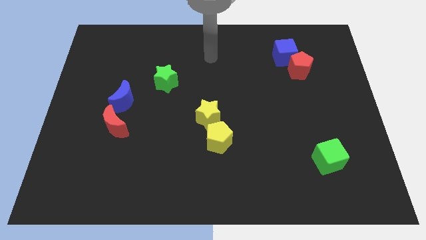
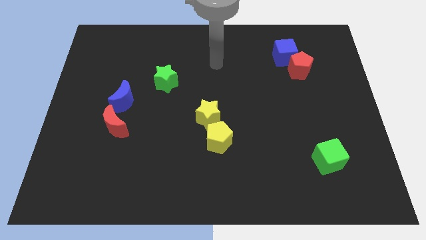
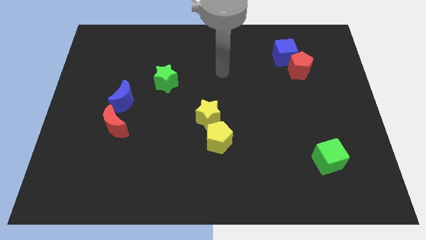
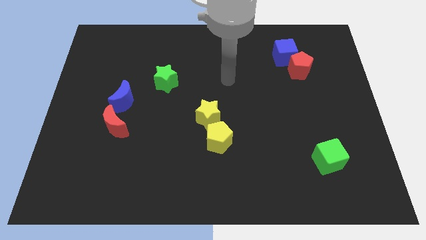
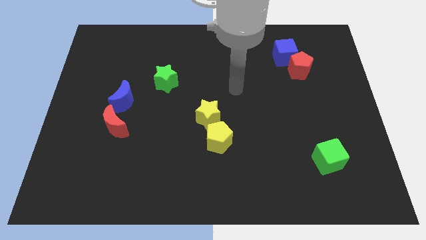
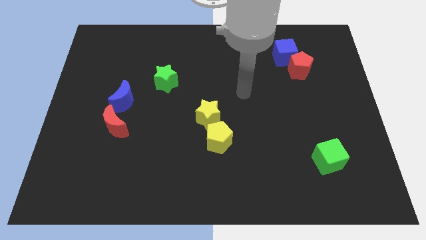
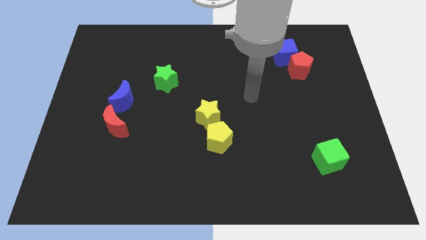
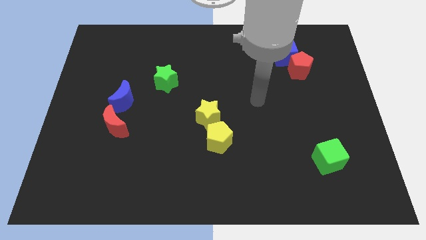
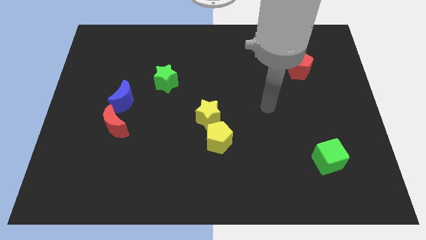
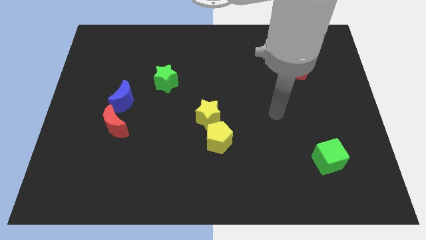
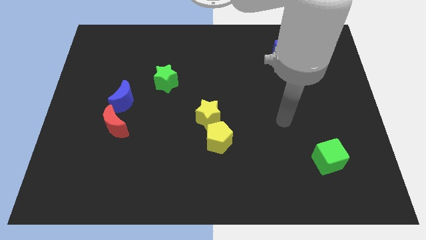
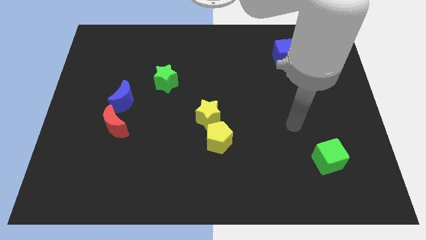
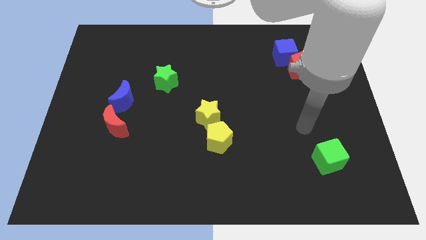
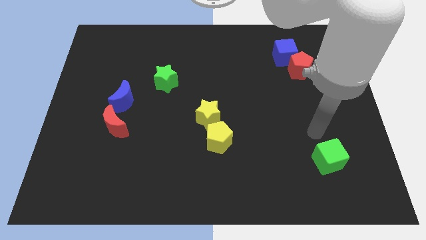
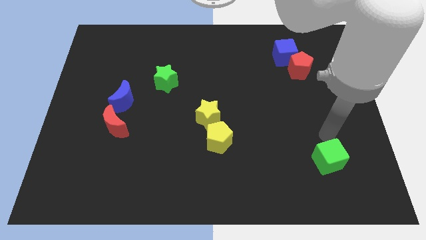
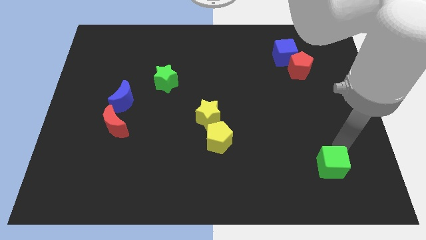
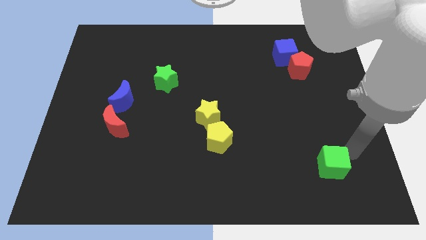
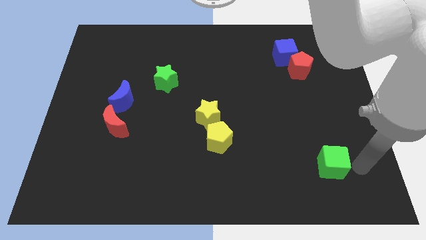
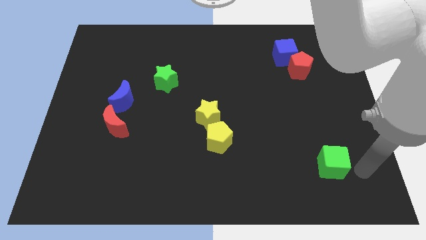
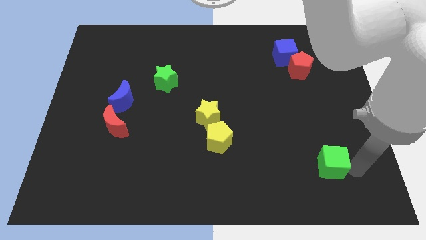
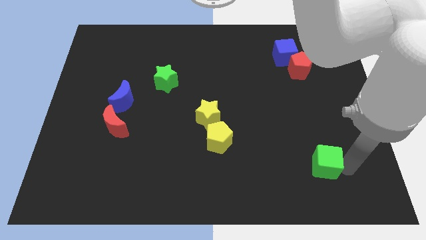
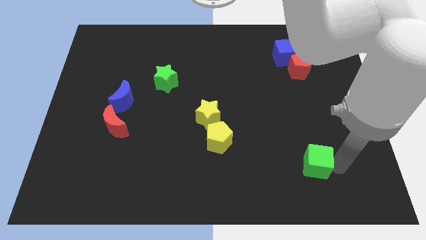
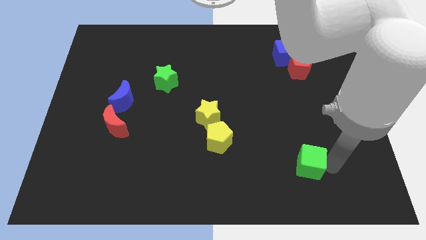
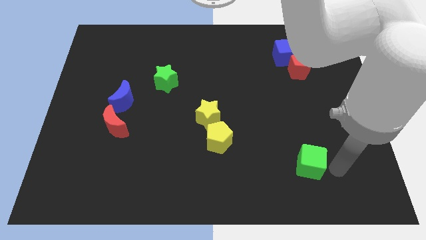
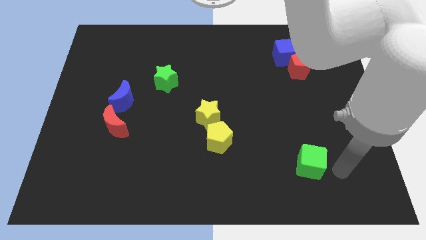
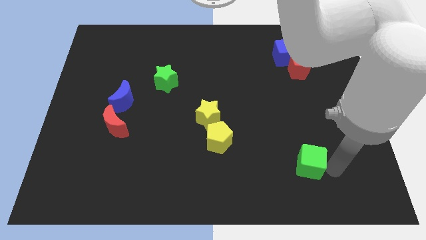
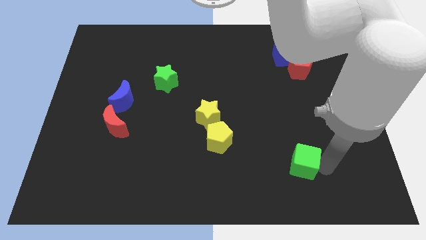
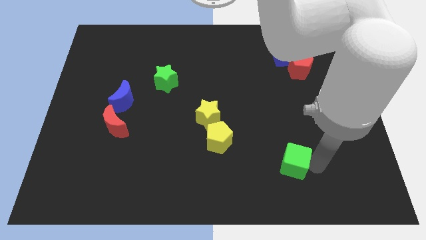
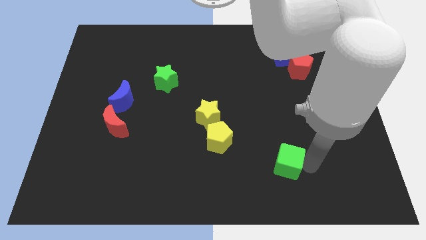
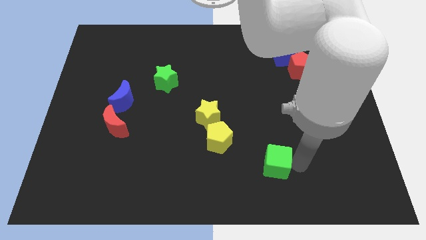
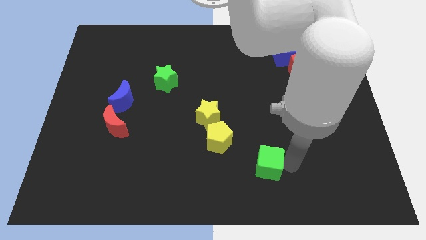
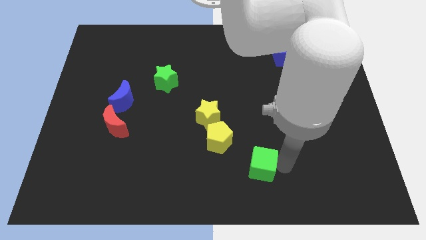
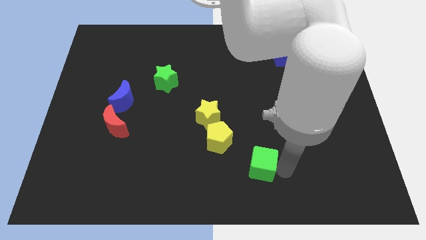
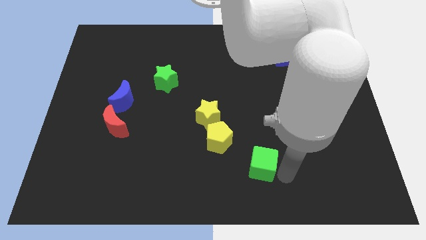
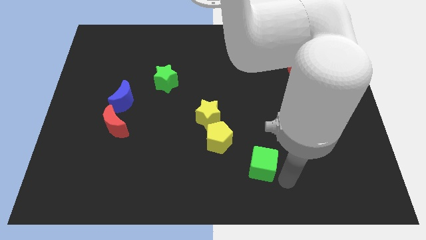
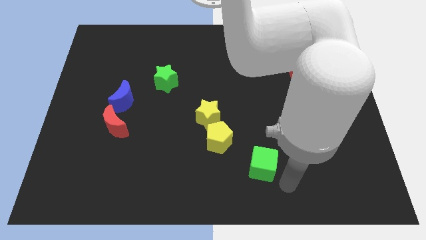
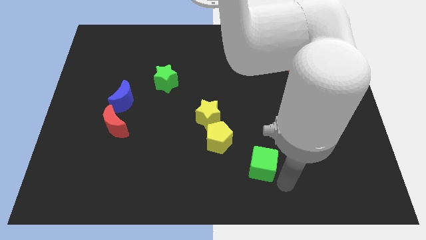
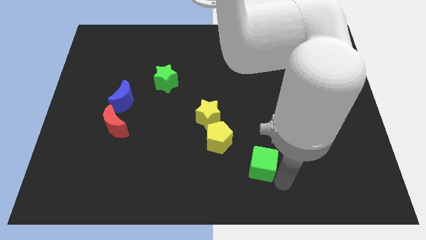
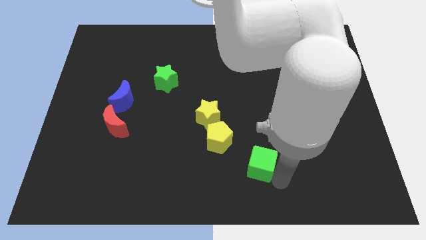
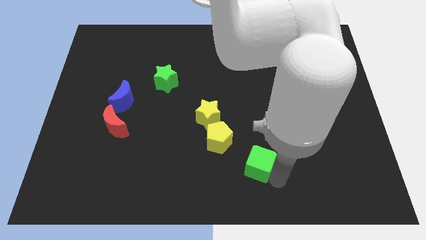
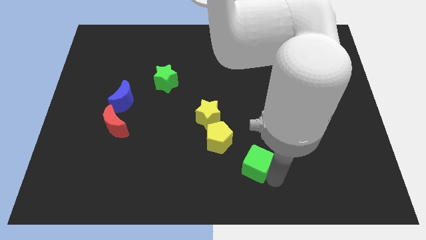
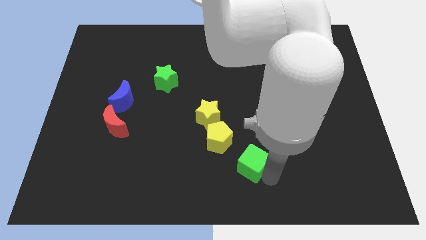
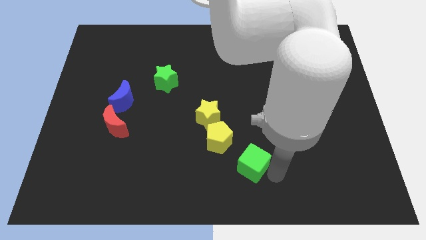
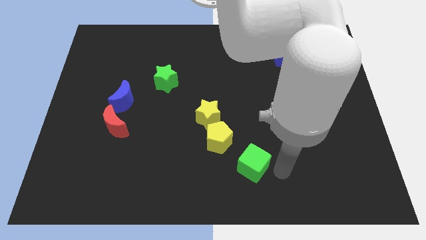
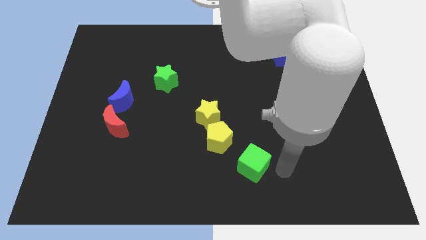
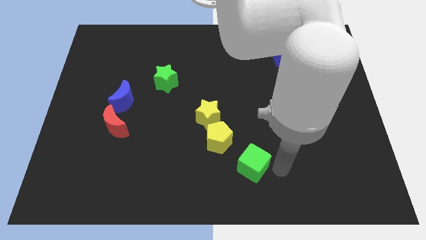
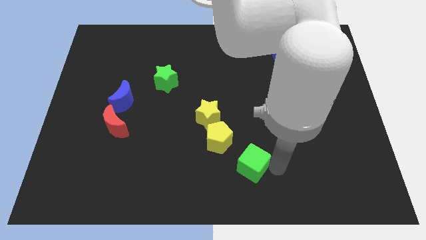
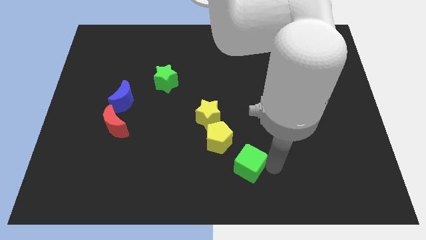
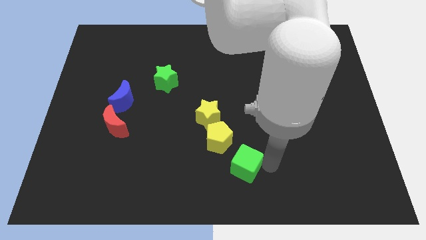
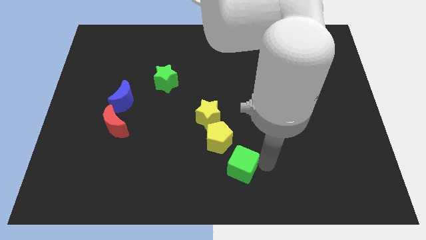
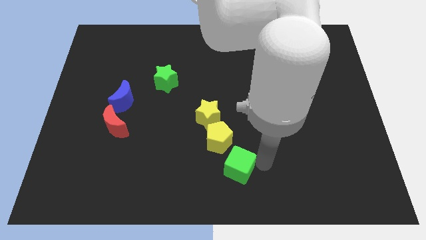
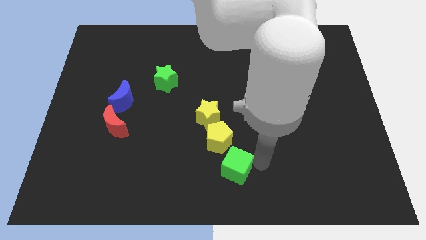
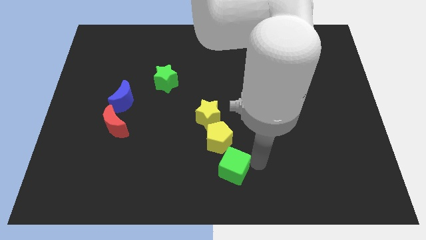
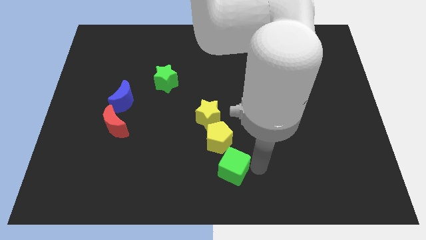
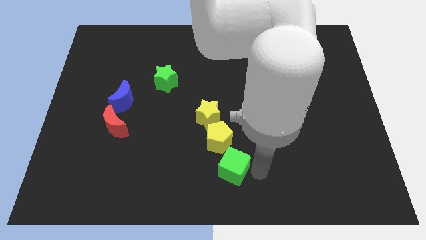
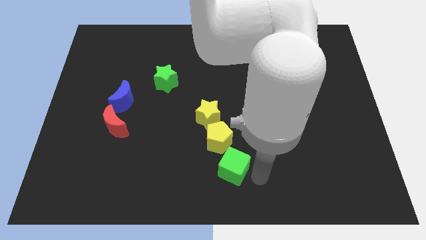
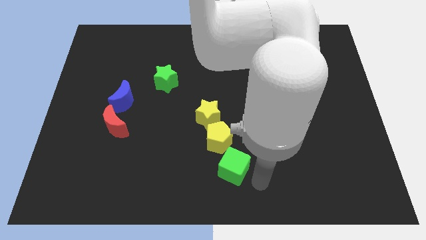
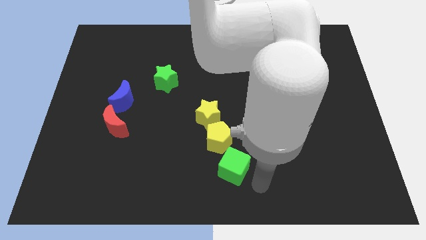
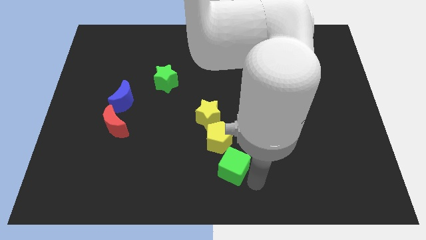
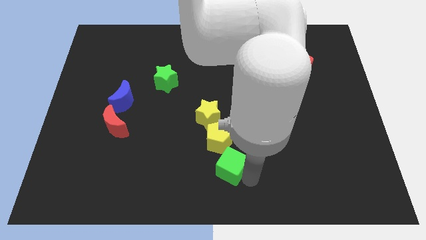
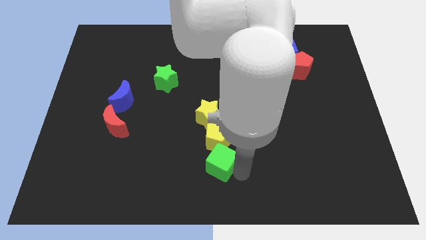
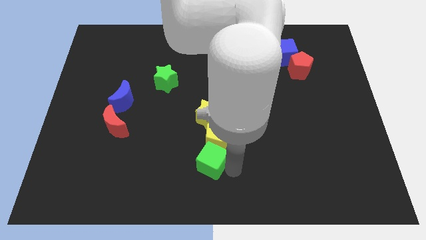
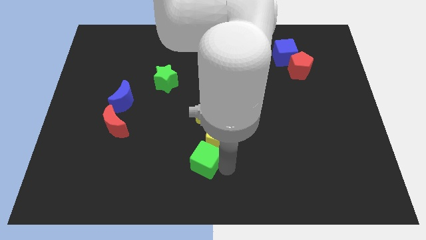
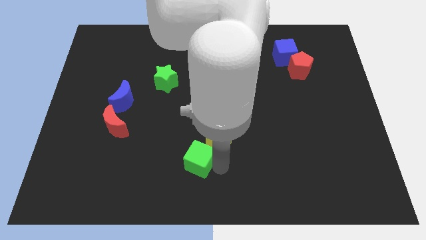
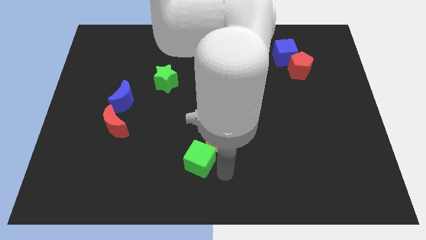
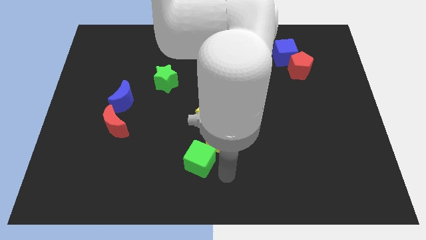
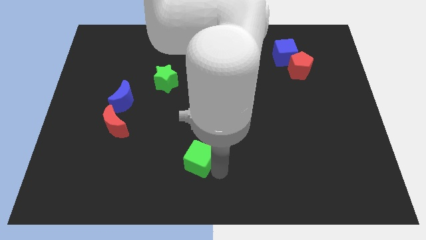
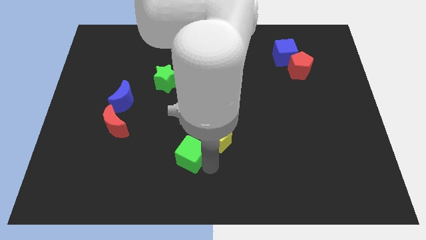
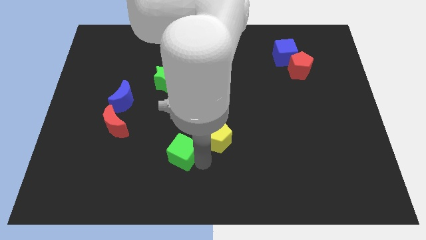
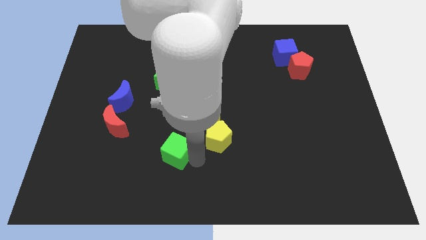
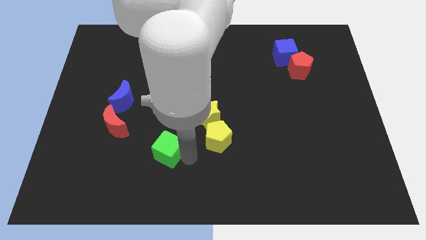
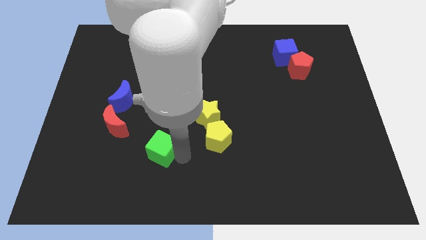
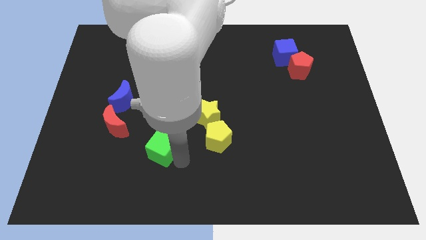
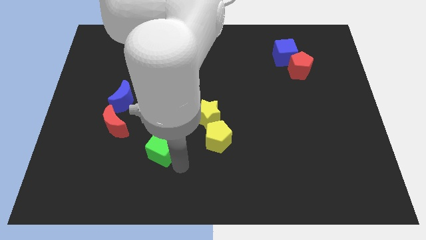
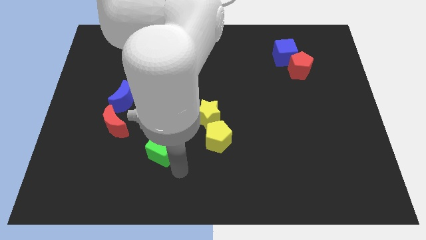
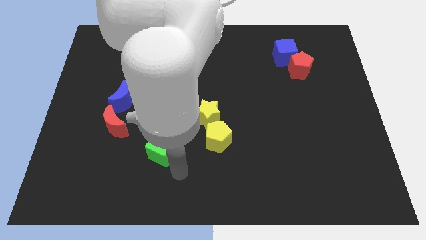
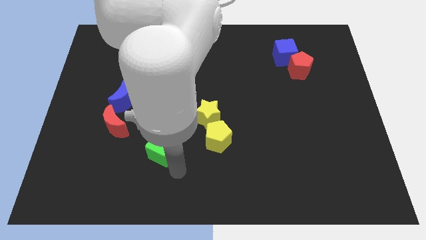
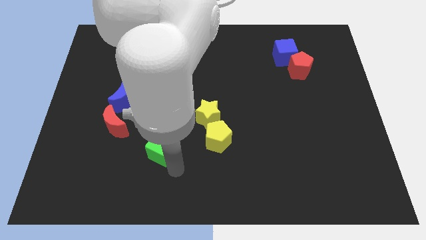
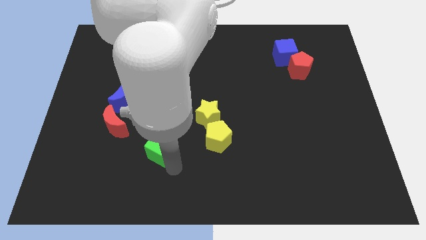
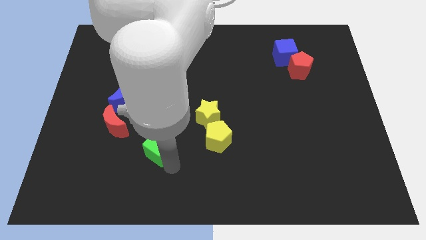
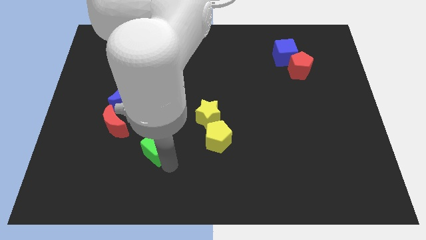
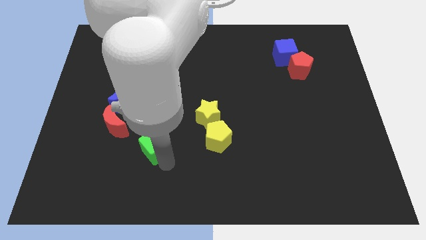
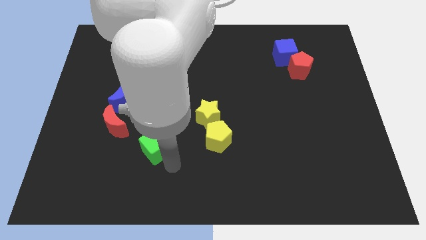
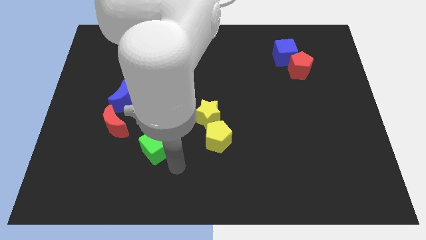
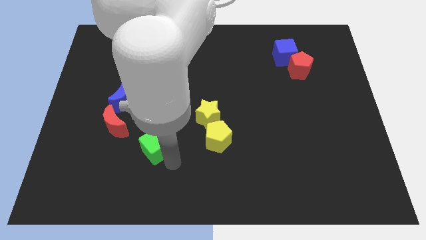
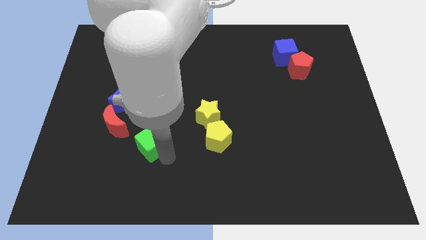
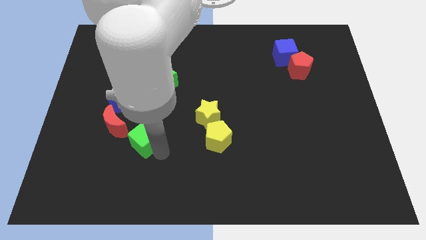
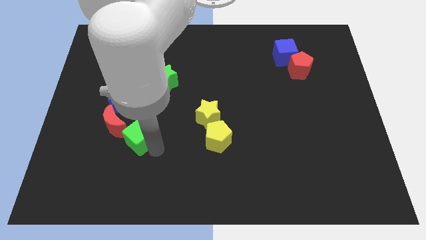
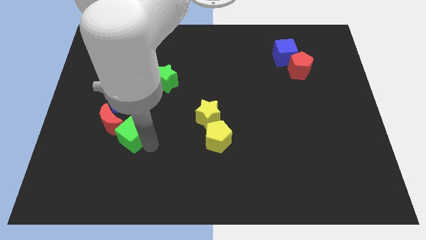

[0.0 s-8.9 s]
put the green cube to the red moon
